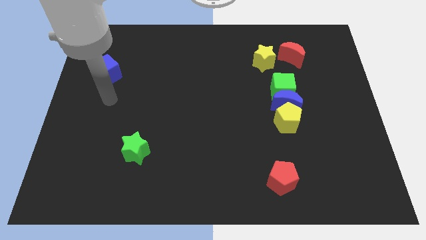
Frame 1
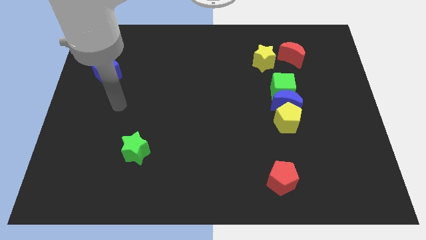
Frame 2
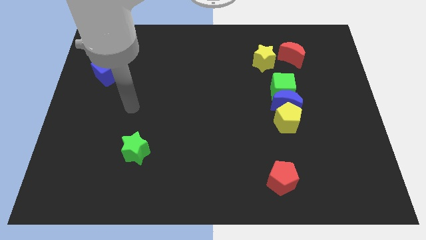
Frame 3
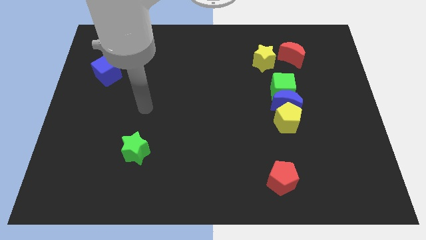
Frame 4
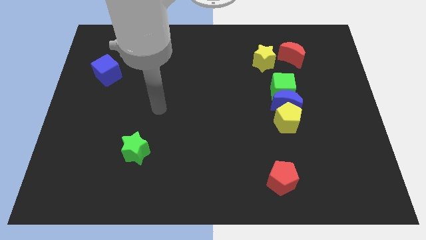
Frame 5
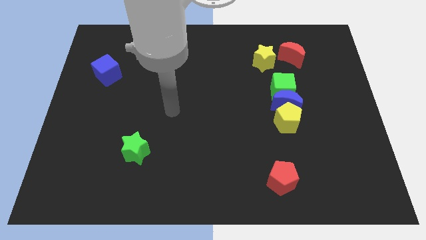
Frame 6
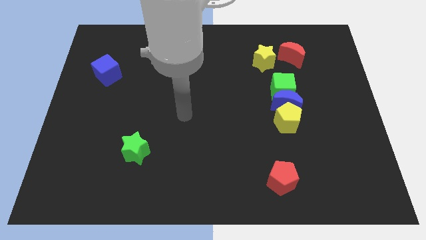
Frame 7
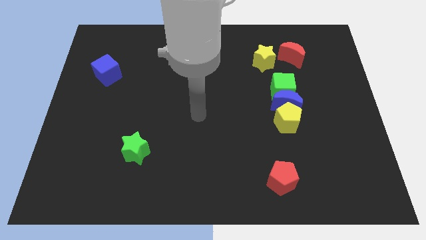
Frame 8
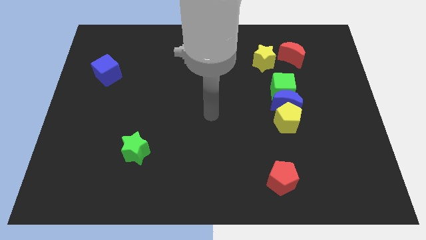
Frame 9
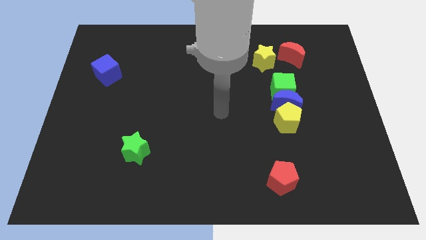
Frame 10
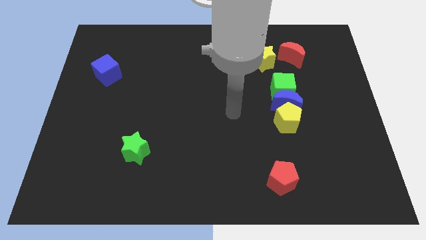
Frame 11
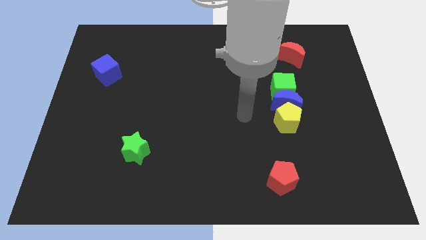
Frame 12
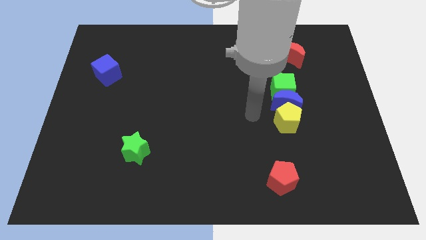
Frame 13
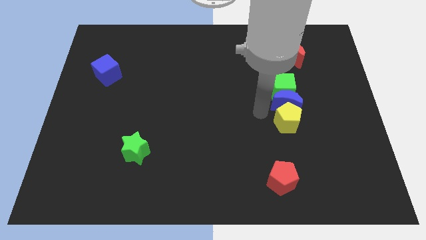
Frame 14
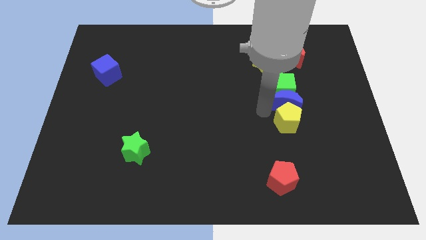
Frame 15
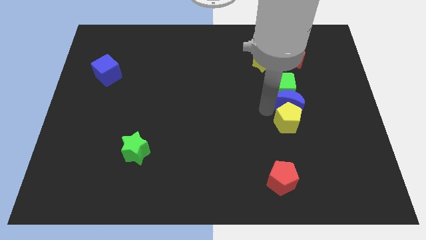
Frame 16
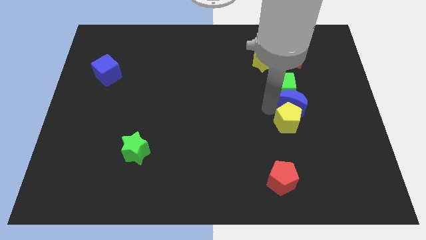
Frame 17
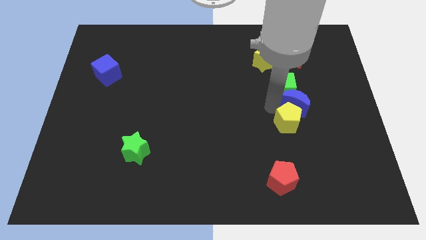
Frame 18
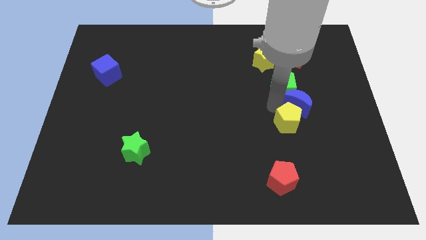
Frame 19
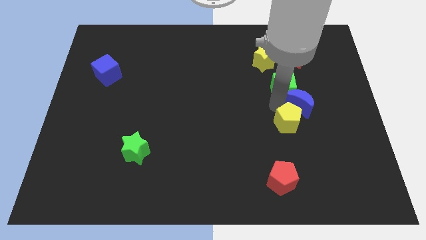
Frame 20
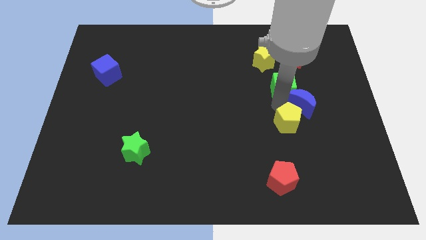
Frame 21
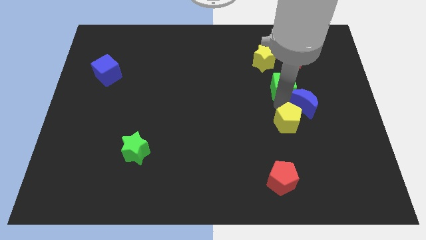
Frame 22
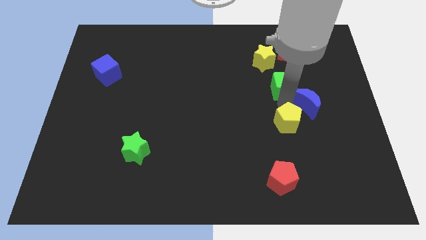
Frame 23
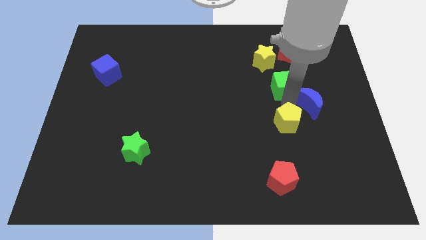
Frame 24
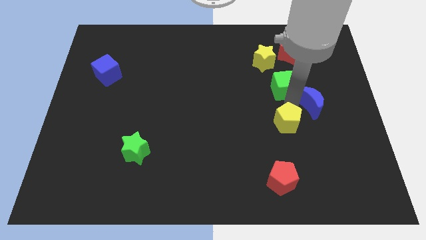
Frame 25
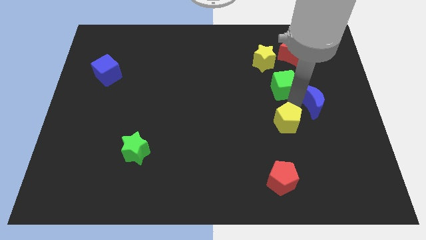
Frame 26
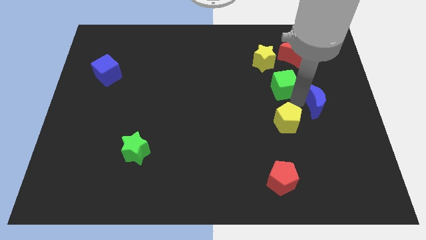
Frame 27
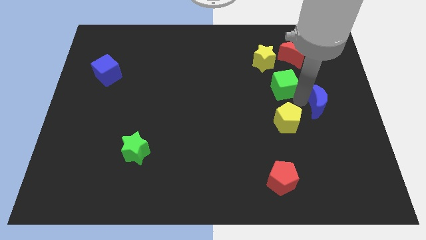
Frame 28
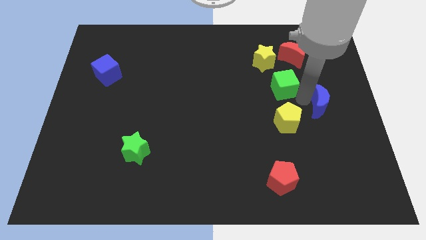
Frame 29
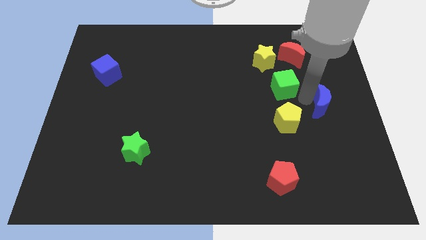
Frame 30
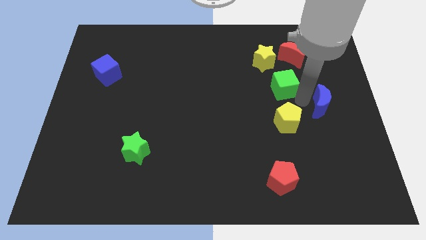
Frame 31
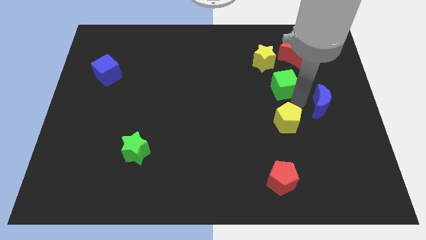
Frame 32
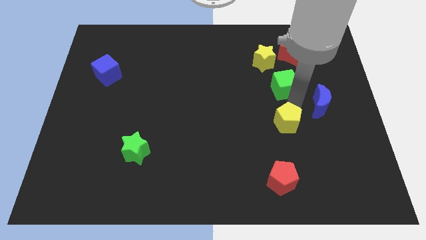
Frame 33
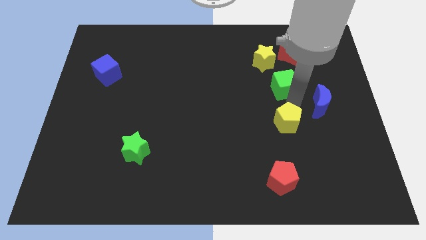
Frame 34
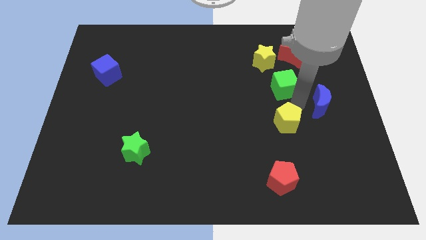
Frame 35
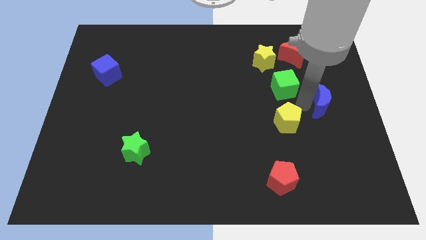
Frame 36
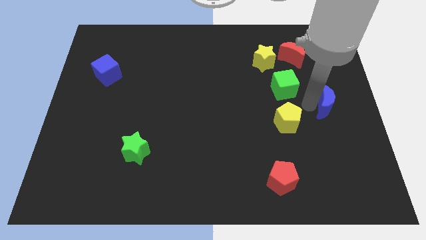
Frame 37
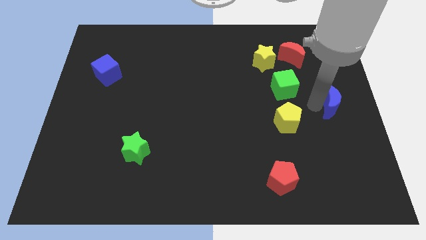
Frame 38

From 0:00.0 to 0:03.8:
separate the blue moon from the green cube and yellow pentagon

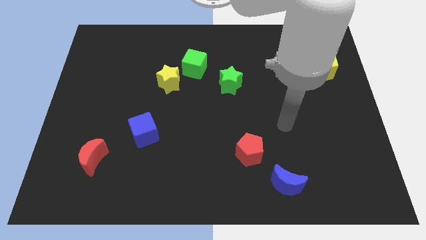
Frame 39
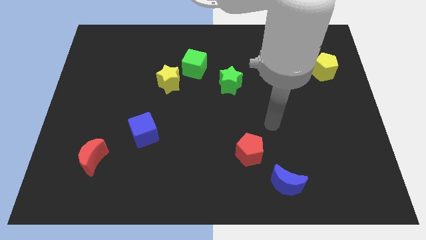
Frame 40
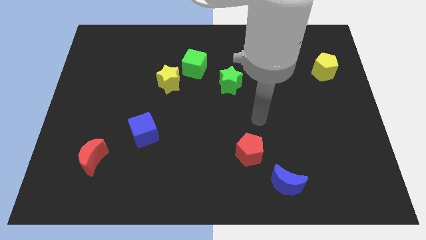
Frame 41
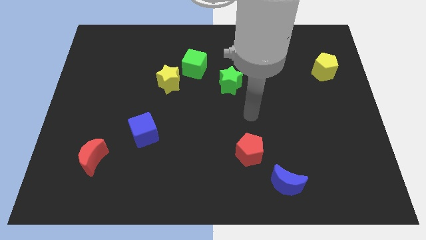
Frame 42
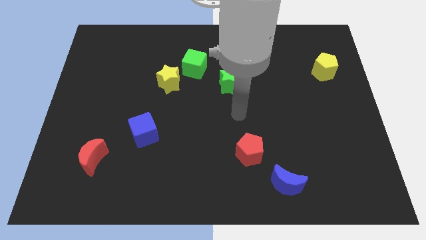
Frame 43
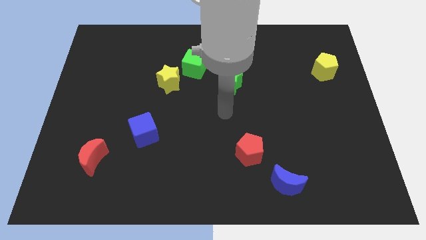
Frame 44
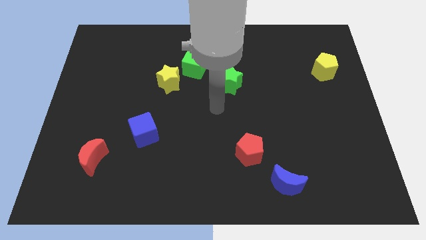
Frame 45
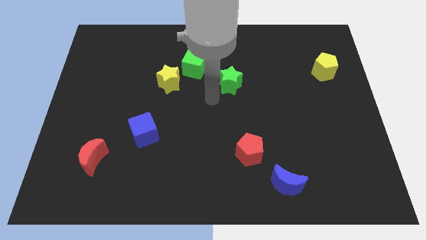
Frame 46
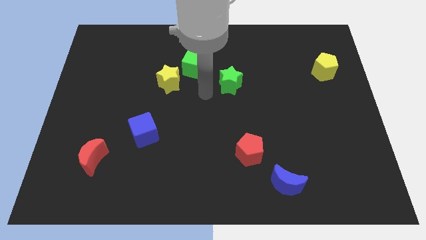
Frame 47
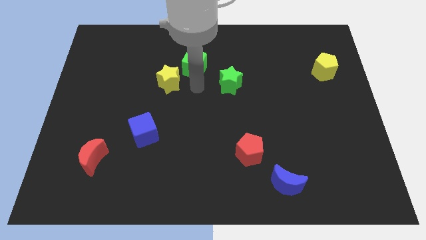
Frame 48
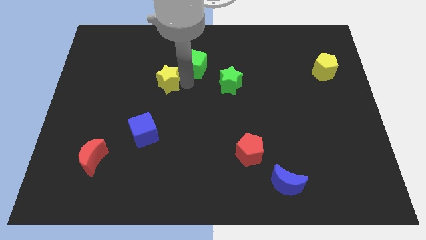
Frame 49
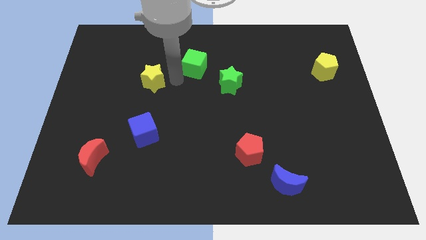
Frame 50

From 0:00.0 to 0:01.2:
move the green cube away from the yellow star

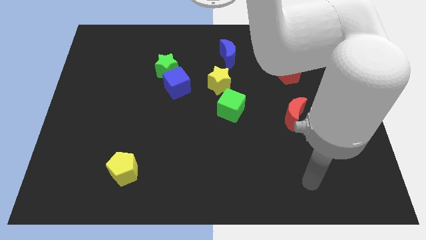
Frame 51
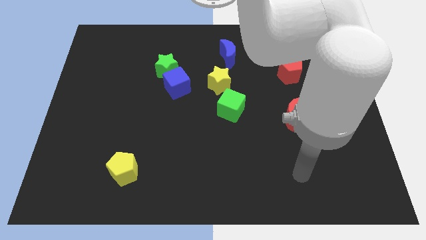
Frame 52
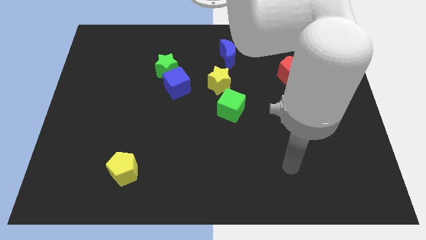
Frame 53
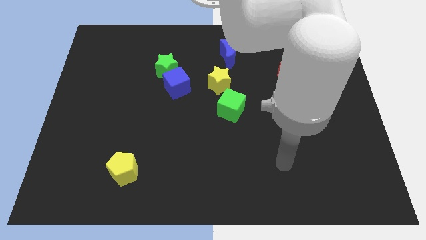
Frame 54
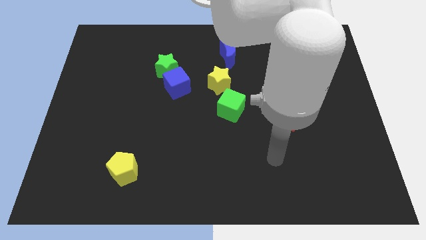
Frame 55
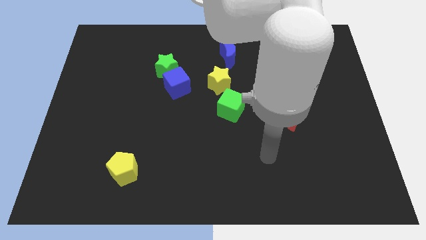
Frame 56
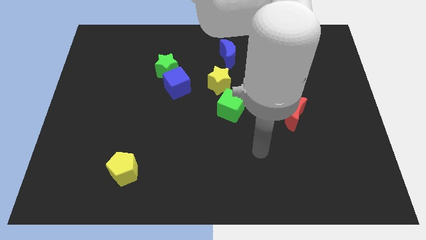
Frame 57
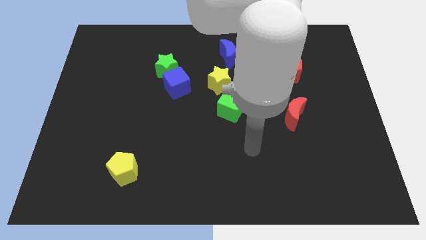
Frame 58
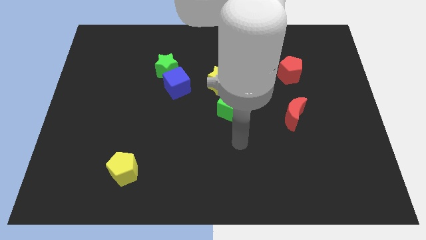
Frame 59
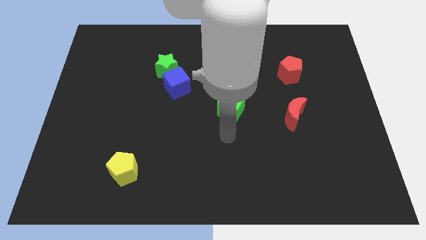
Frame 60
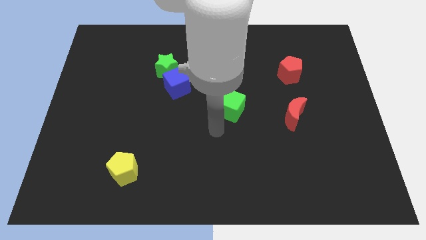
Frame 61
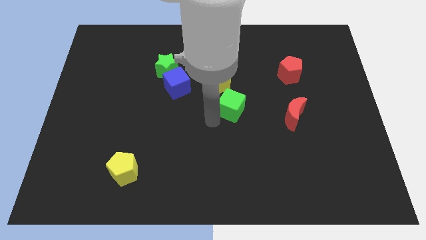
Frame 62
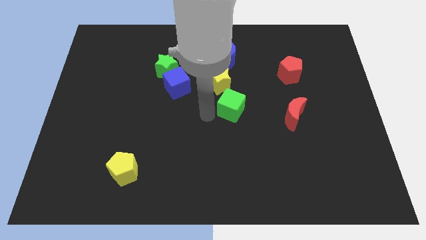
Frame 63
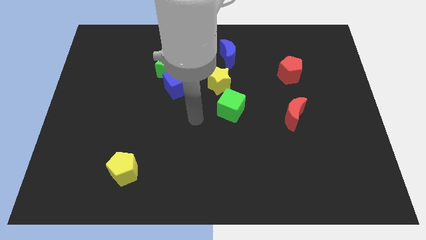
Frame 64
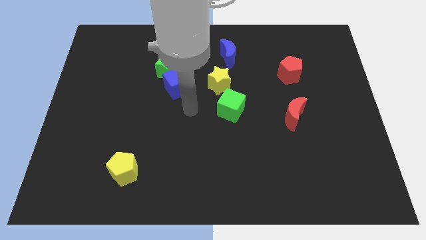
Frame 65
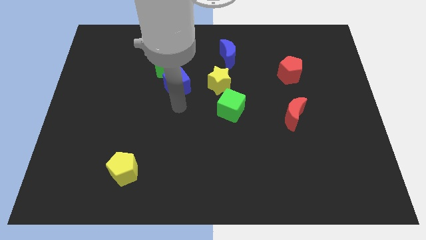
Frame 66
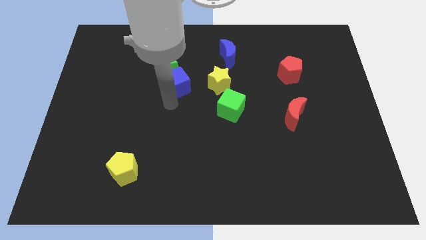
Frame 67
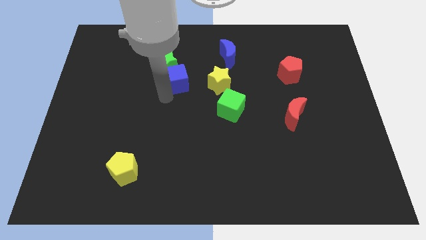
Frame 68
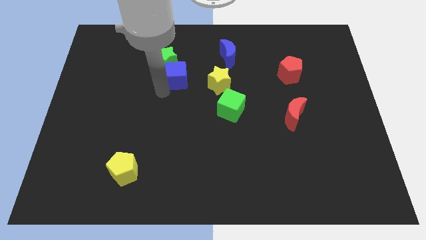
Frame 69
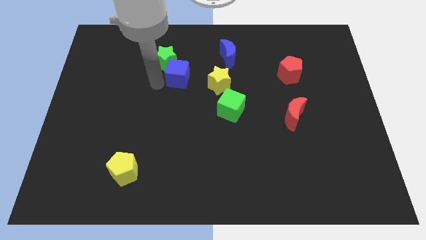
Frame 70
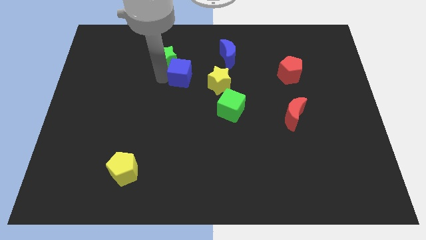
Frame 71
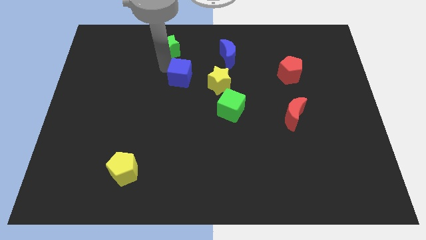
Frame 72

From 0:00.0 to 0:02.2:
move the blue cube away from the green star

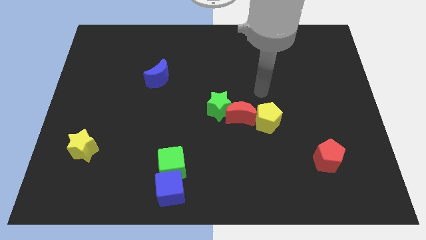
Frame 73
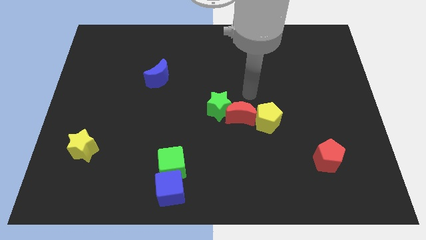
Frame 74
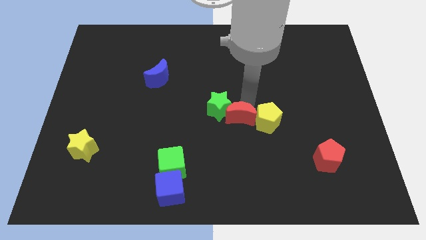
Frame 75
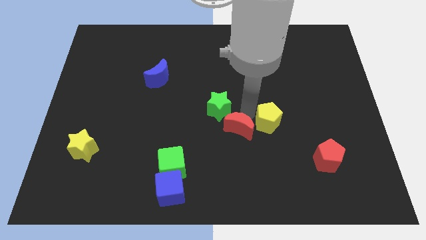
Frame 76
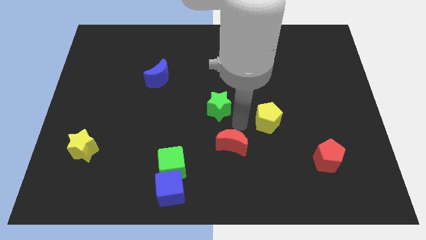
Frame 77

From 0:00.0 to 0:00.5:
separate the green star from the red moon

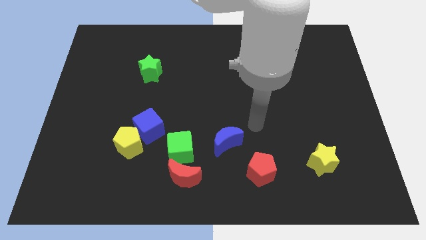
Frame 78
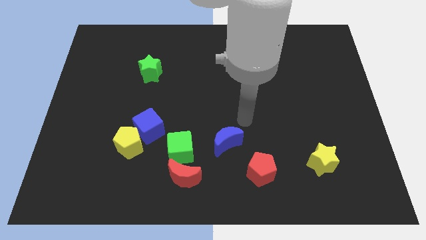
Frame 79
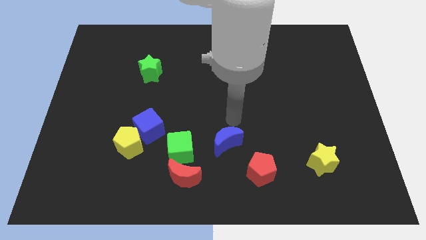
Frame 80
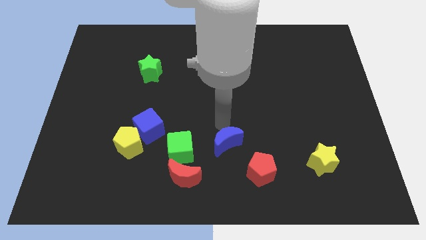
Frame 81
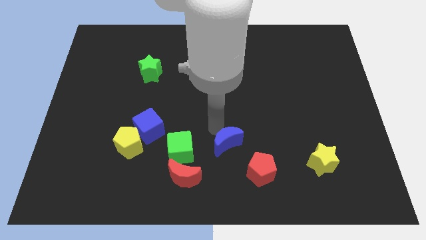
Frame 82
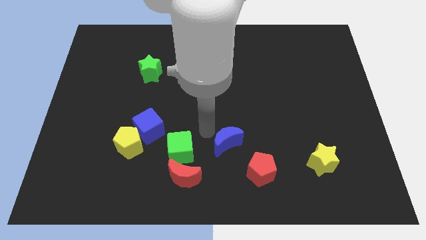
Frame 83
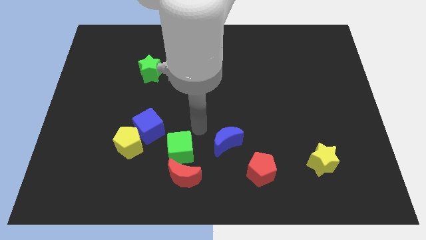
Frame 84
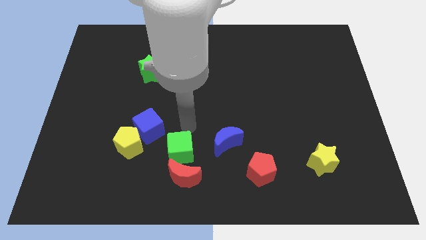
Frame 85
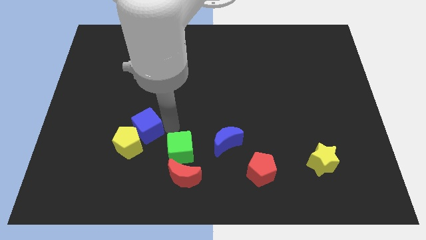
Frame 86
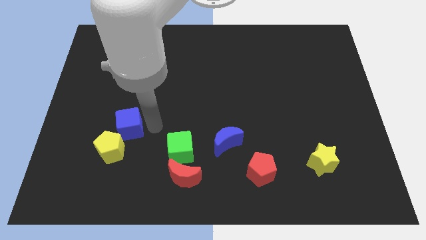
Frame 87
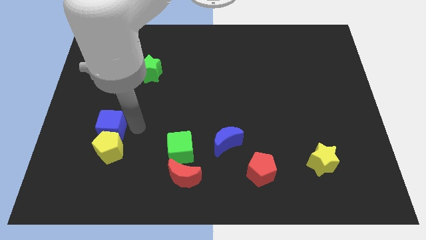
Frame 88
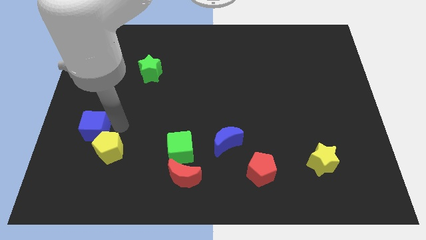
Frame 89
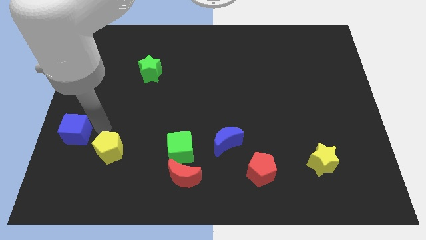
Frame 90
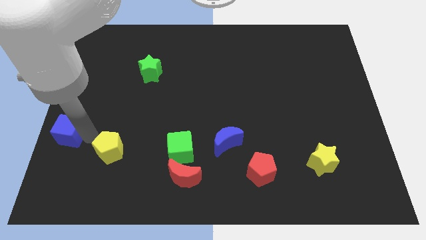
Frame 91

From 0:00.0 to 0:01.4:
move the yellow pentagon away from the blue cube

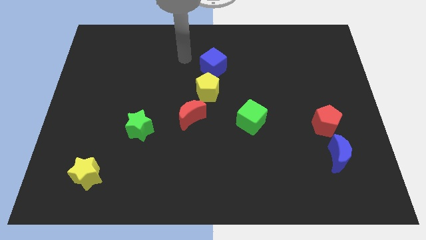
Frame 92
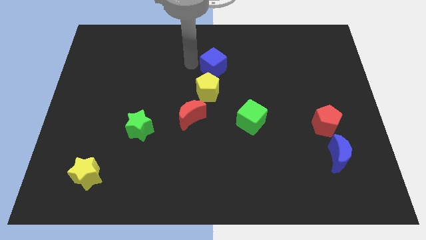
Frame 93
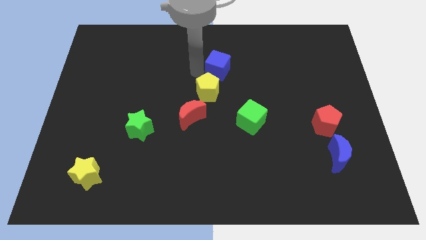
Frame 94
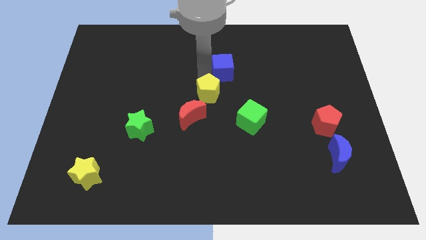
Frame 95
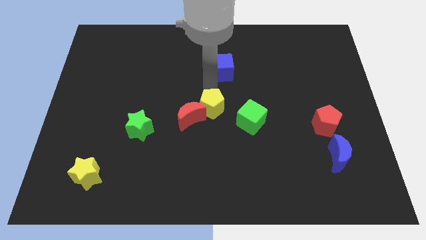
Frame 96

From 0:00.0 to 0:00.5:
pull the blue cube apart from the yellow pentagon
